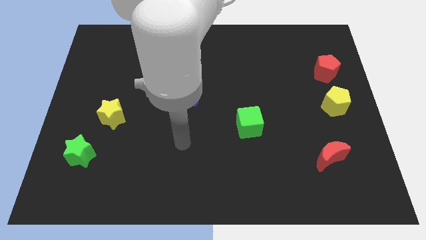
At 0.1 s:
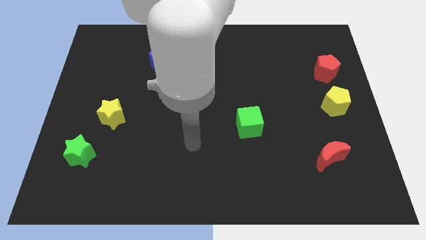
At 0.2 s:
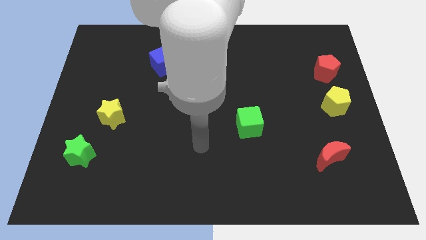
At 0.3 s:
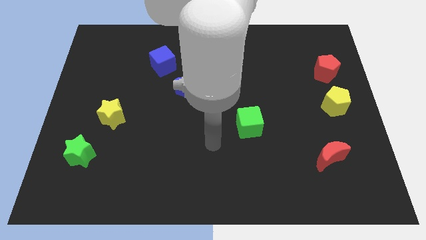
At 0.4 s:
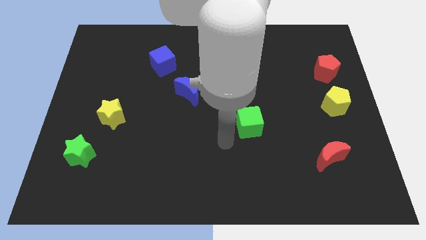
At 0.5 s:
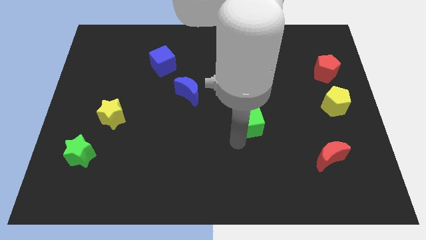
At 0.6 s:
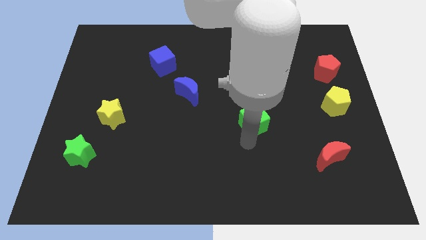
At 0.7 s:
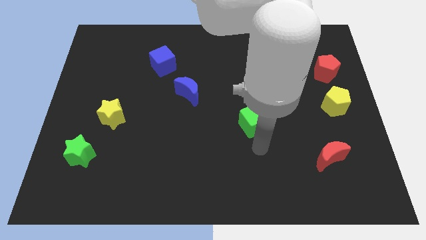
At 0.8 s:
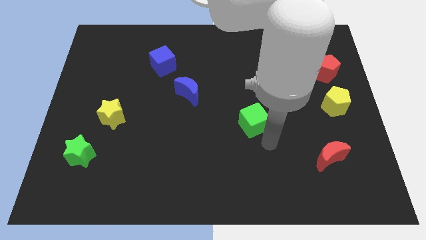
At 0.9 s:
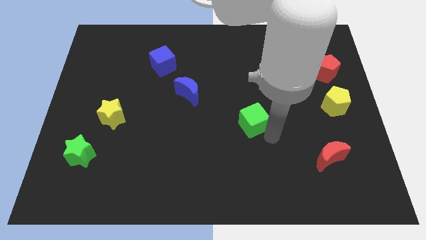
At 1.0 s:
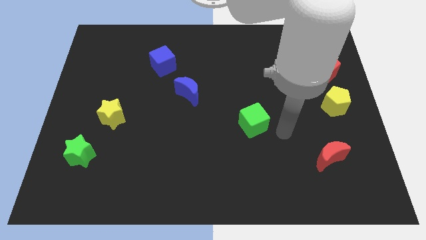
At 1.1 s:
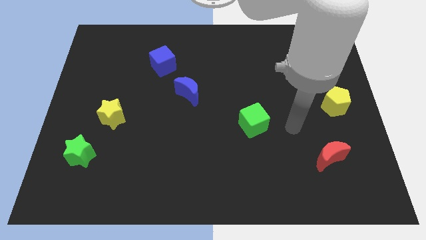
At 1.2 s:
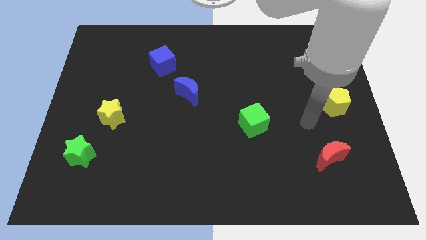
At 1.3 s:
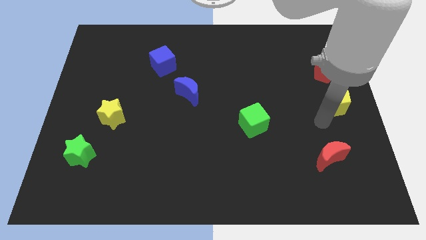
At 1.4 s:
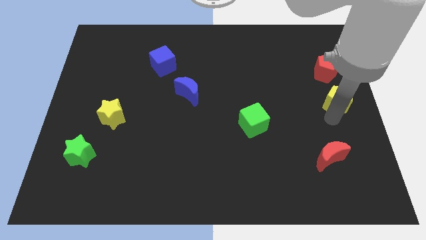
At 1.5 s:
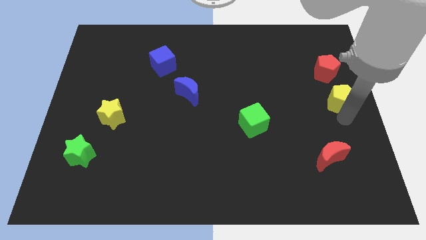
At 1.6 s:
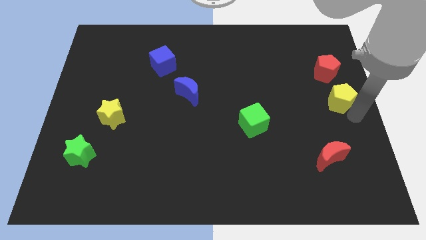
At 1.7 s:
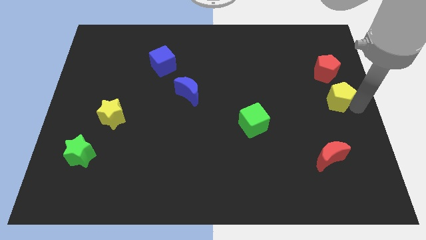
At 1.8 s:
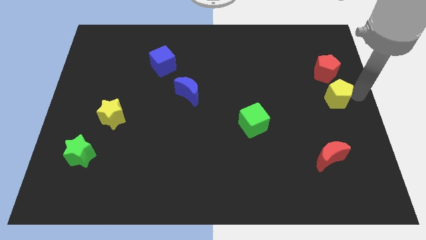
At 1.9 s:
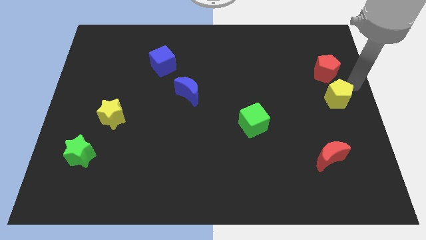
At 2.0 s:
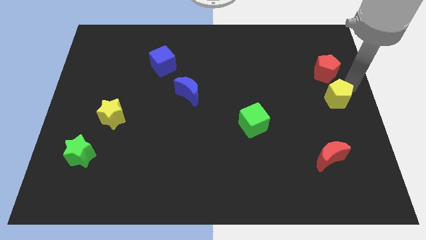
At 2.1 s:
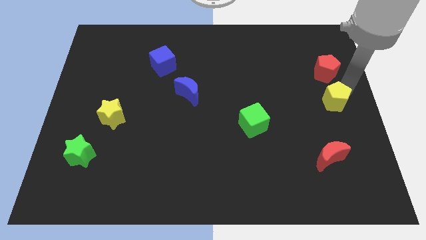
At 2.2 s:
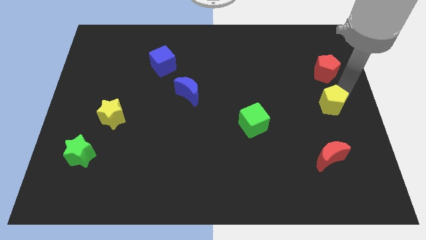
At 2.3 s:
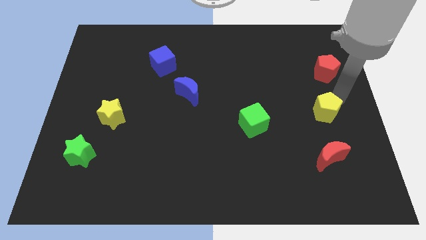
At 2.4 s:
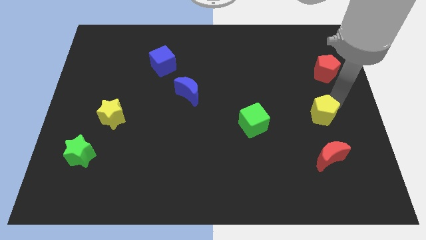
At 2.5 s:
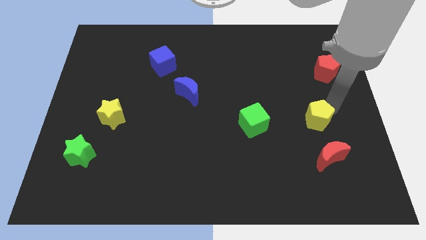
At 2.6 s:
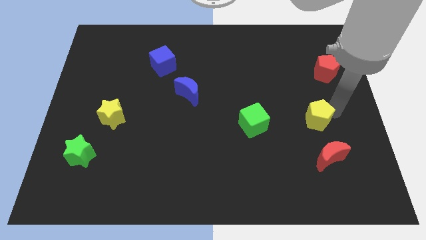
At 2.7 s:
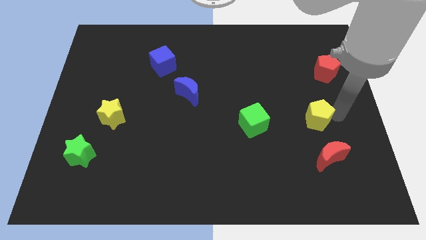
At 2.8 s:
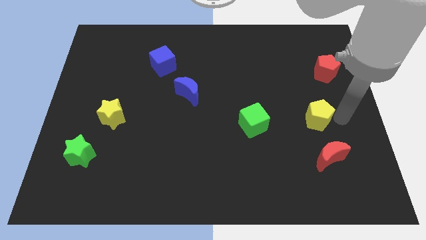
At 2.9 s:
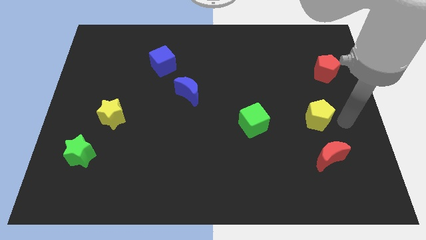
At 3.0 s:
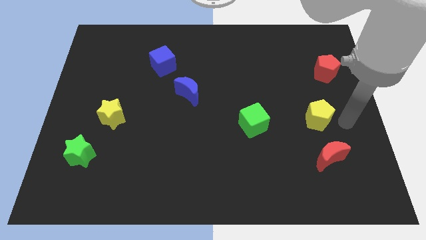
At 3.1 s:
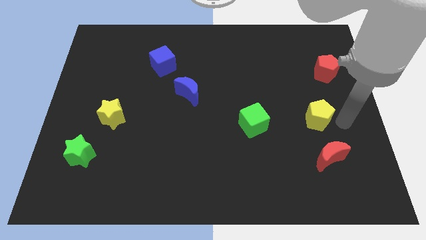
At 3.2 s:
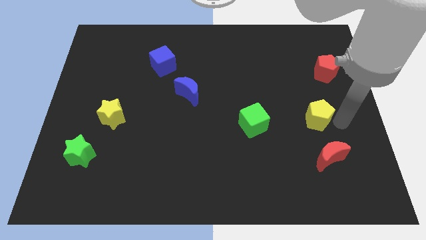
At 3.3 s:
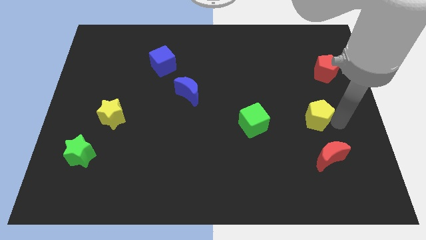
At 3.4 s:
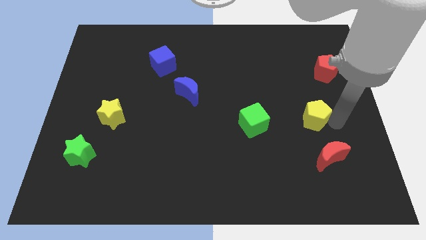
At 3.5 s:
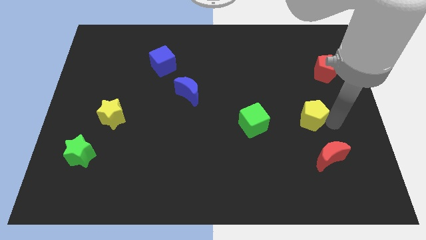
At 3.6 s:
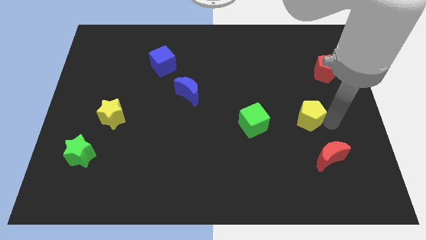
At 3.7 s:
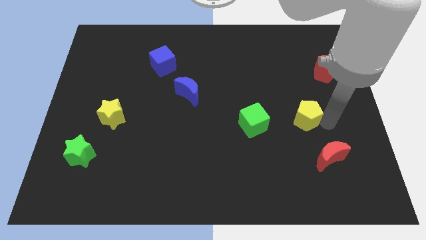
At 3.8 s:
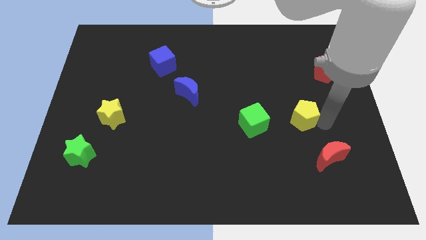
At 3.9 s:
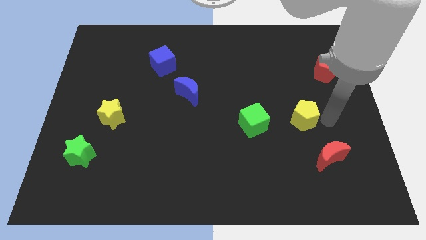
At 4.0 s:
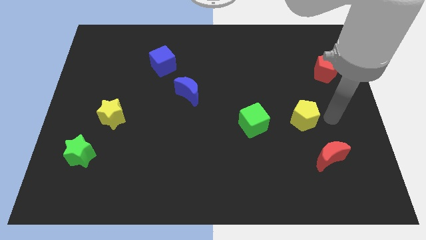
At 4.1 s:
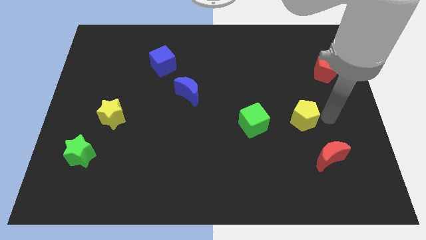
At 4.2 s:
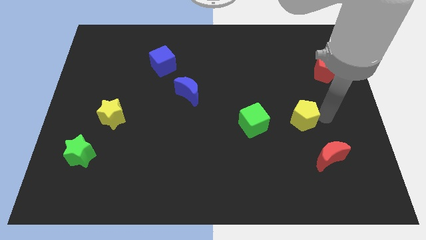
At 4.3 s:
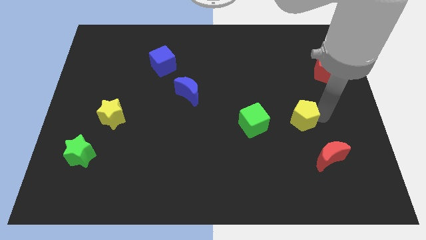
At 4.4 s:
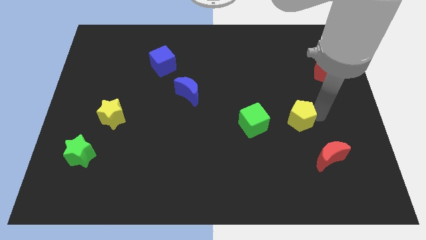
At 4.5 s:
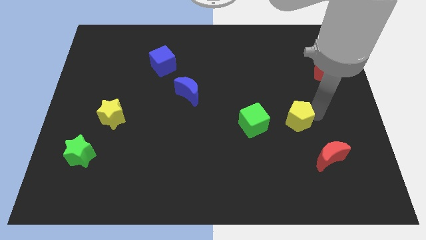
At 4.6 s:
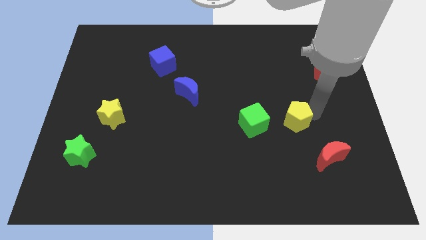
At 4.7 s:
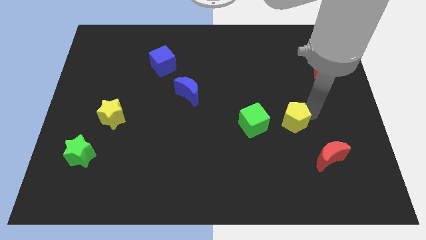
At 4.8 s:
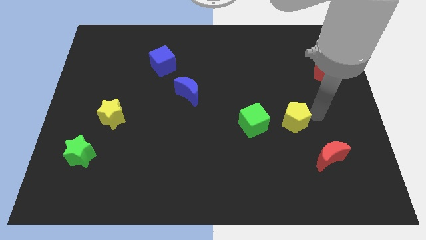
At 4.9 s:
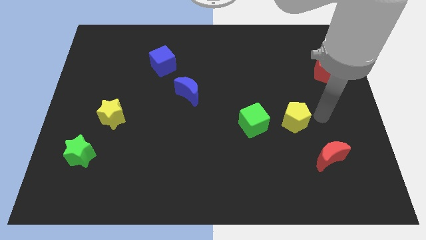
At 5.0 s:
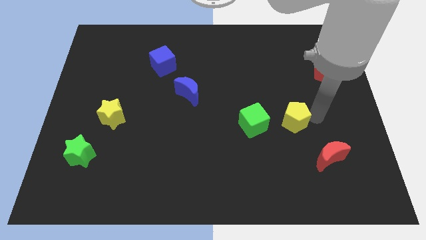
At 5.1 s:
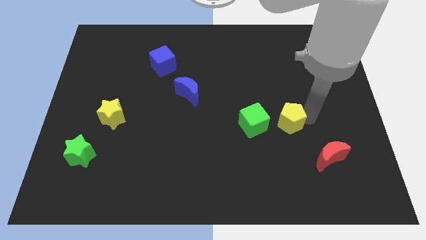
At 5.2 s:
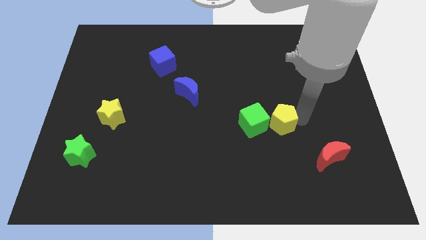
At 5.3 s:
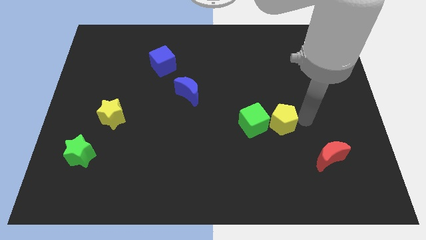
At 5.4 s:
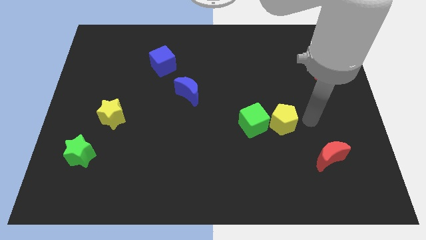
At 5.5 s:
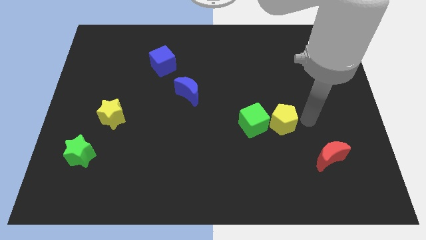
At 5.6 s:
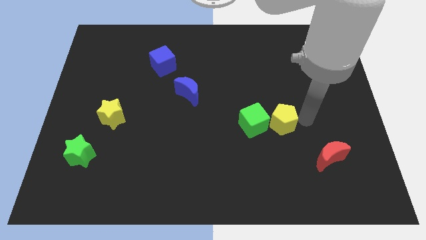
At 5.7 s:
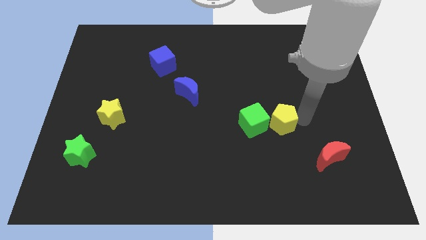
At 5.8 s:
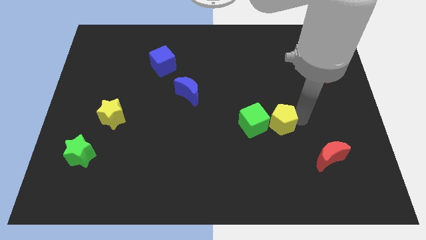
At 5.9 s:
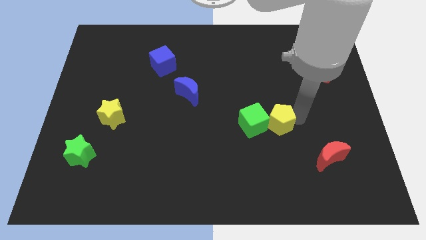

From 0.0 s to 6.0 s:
slide the yellow pentagon to the green cube

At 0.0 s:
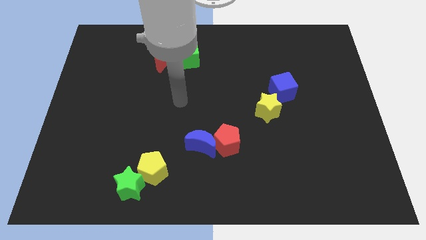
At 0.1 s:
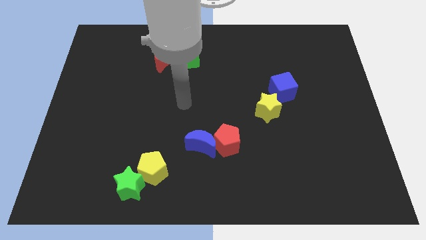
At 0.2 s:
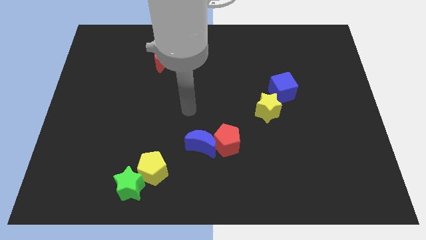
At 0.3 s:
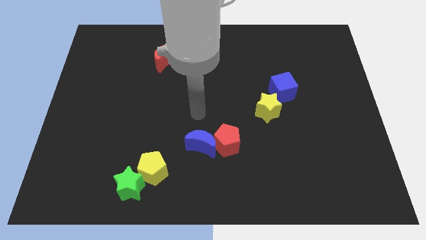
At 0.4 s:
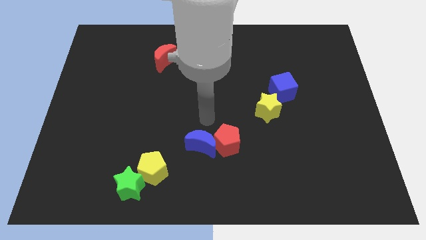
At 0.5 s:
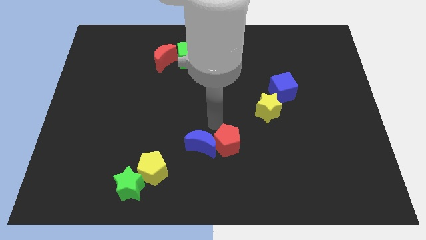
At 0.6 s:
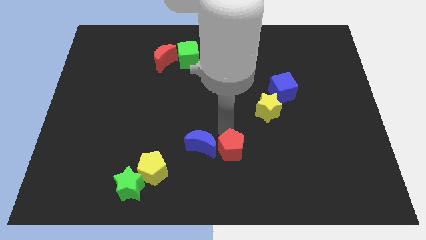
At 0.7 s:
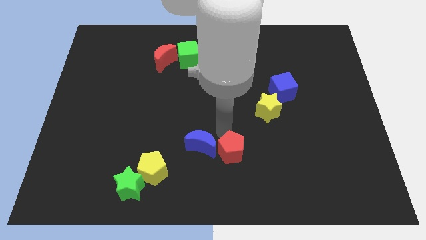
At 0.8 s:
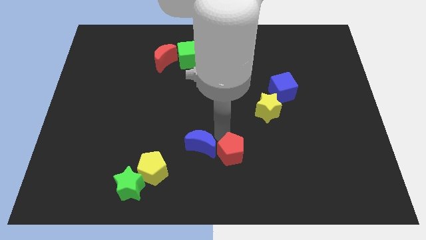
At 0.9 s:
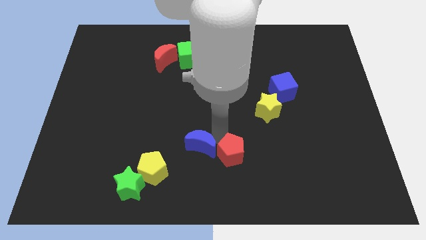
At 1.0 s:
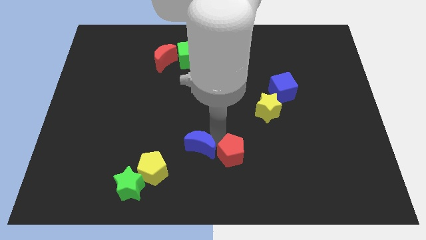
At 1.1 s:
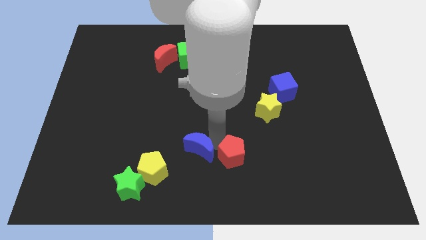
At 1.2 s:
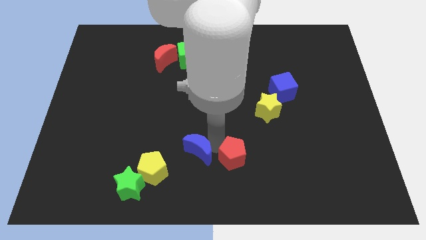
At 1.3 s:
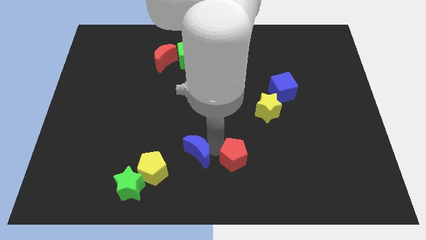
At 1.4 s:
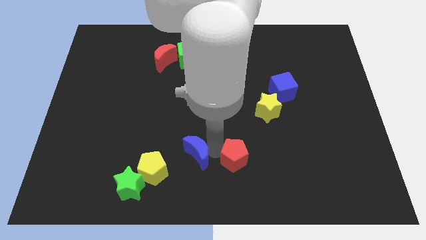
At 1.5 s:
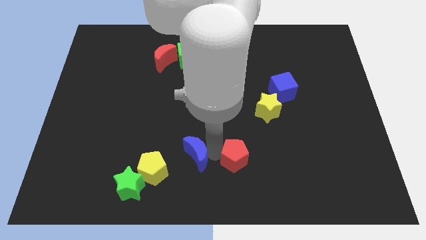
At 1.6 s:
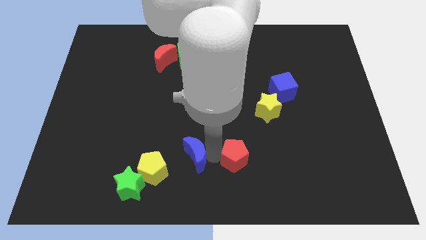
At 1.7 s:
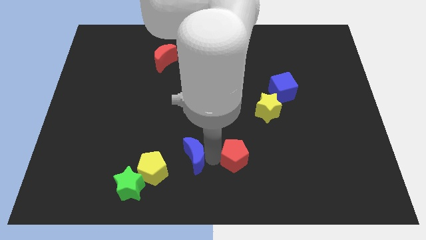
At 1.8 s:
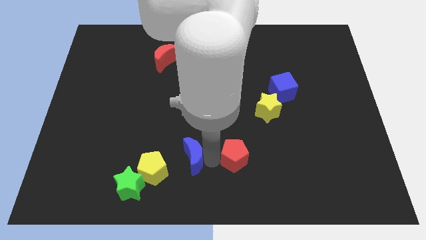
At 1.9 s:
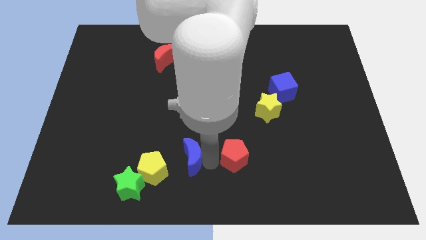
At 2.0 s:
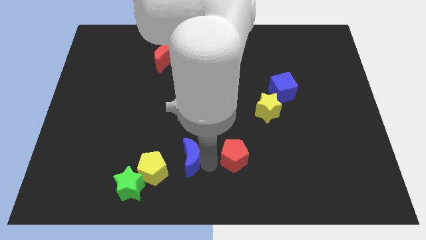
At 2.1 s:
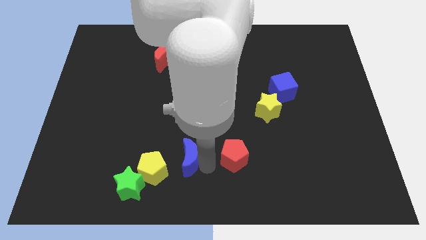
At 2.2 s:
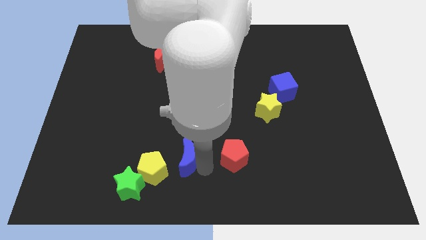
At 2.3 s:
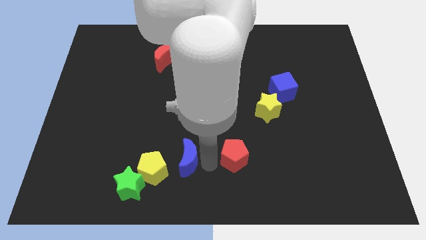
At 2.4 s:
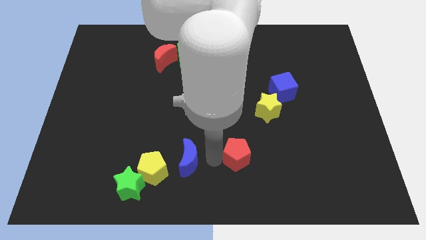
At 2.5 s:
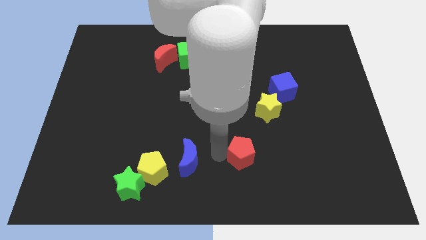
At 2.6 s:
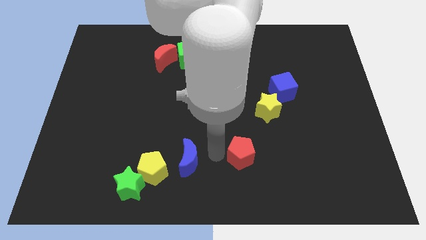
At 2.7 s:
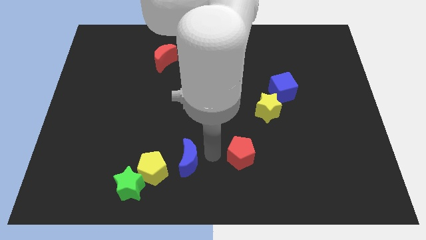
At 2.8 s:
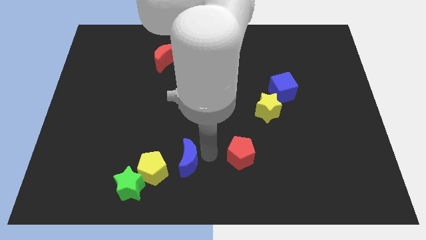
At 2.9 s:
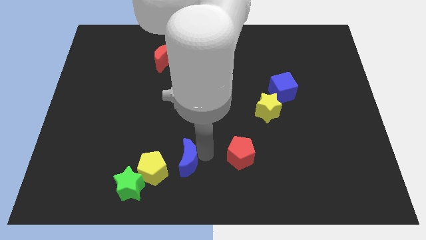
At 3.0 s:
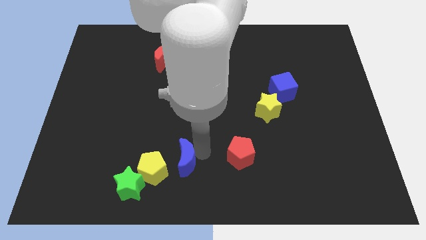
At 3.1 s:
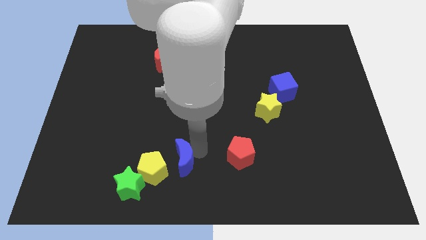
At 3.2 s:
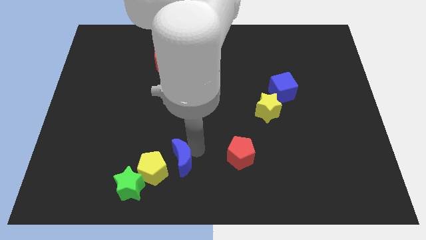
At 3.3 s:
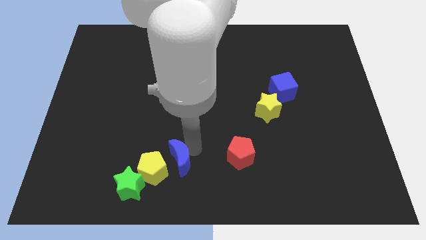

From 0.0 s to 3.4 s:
push the blue moon next to the yellow pentagon
